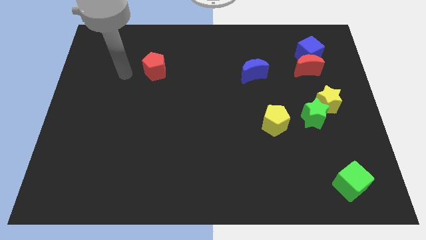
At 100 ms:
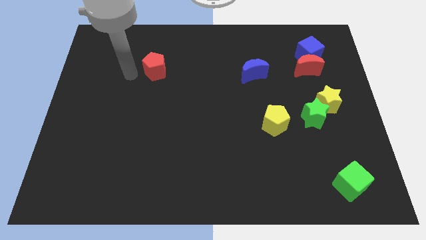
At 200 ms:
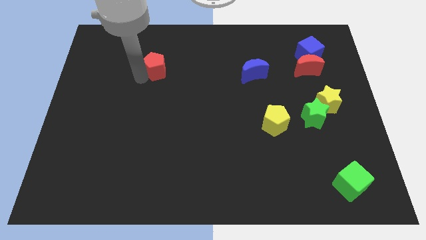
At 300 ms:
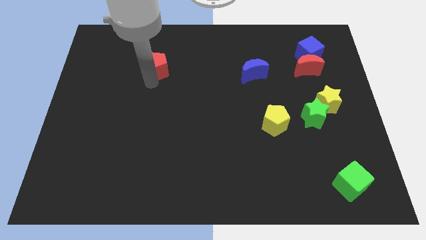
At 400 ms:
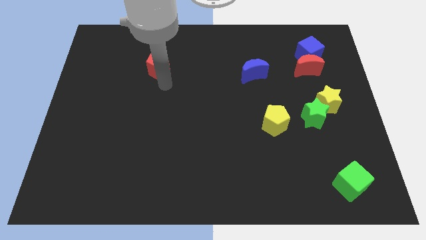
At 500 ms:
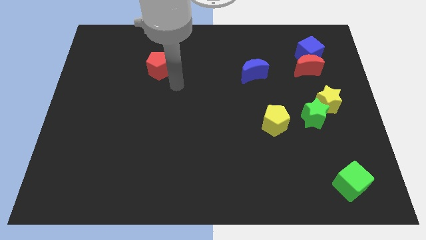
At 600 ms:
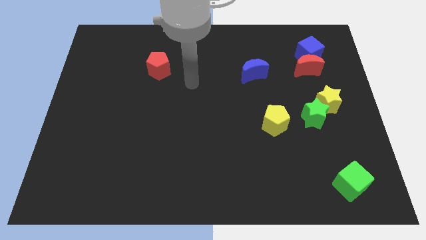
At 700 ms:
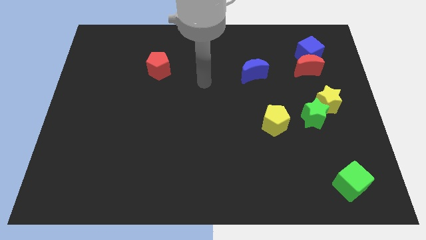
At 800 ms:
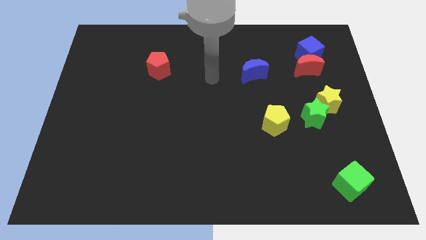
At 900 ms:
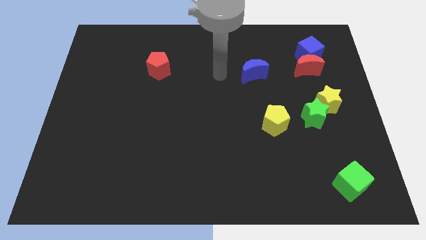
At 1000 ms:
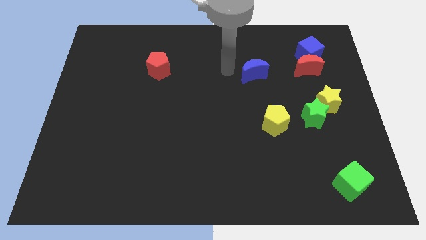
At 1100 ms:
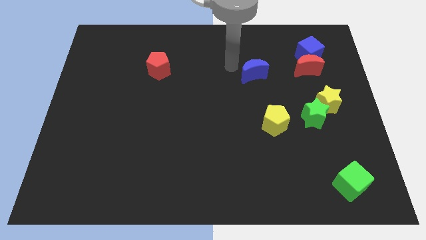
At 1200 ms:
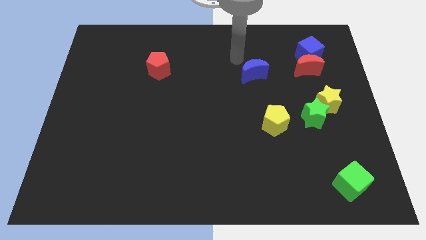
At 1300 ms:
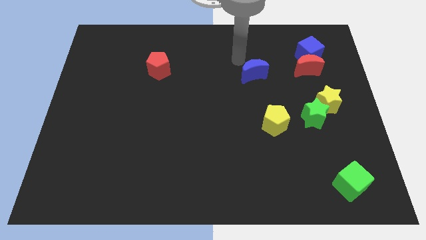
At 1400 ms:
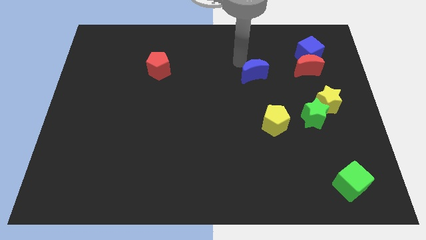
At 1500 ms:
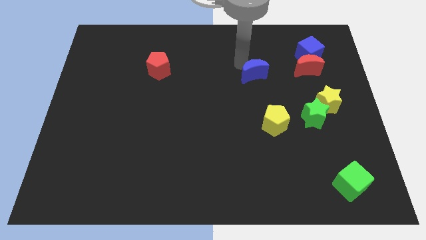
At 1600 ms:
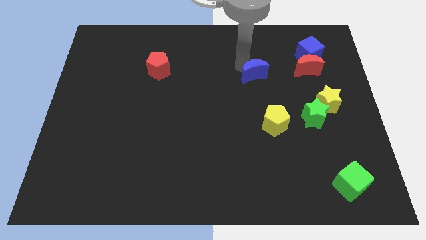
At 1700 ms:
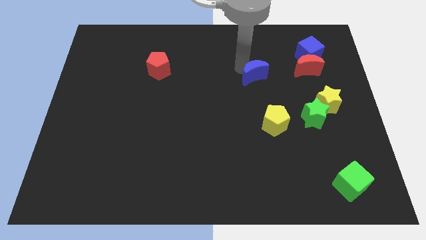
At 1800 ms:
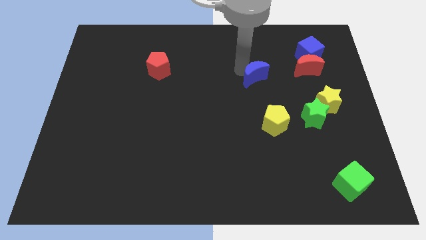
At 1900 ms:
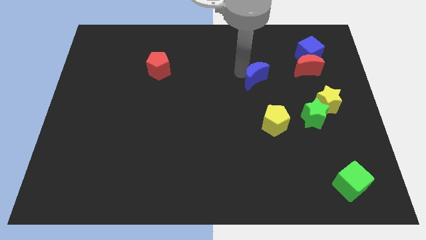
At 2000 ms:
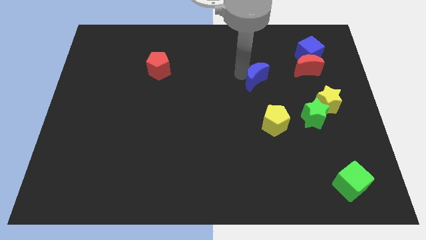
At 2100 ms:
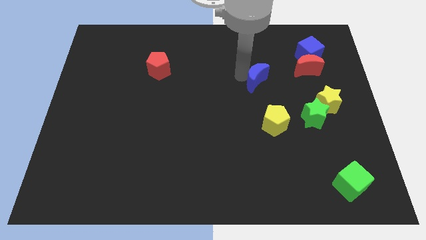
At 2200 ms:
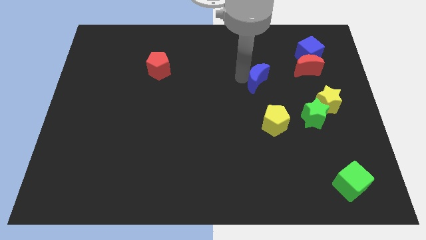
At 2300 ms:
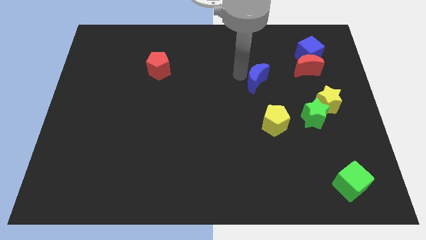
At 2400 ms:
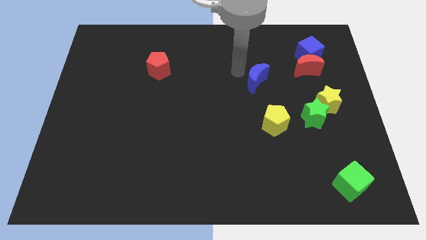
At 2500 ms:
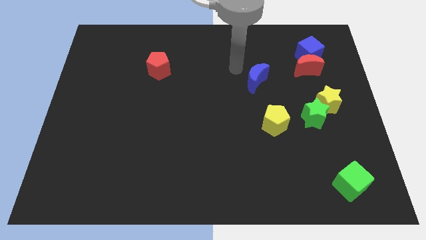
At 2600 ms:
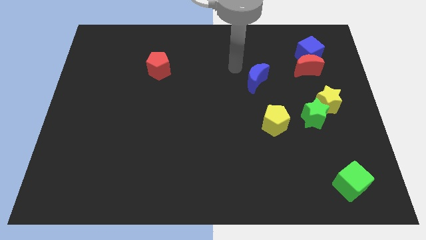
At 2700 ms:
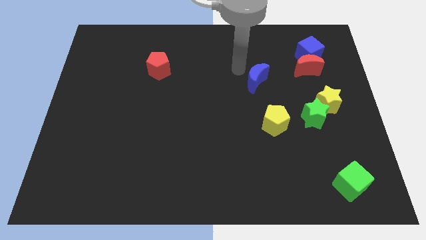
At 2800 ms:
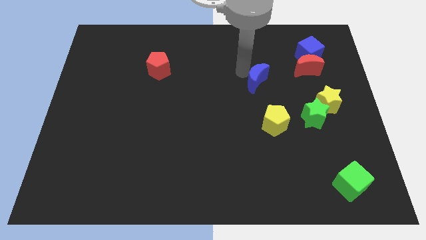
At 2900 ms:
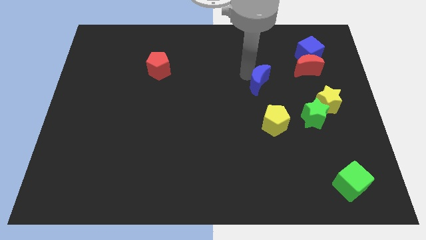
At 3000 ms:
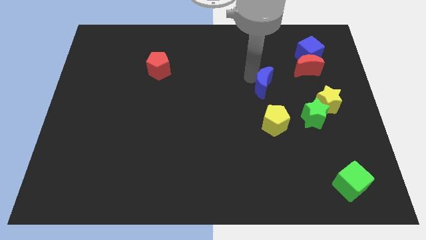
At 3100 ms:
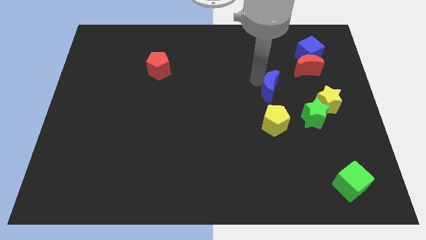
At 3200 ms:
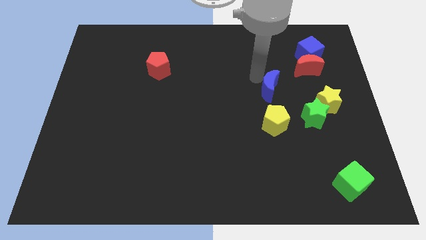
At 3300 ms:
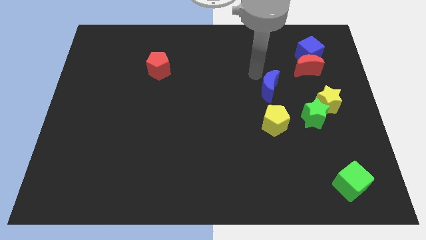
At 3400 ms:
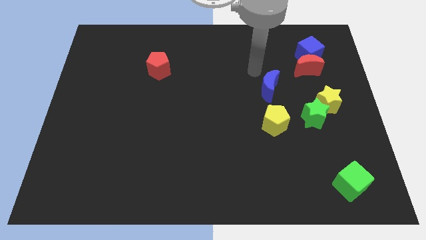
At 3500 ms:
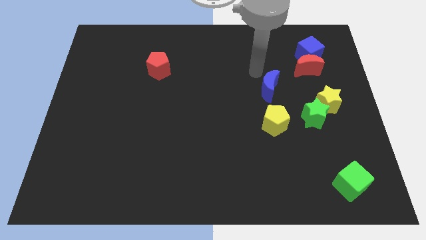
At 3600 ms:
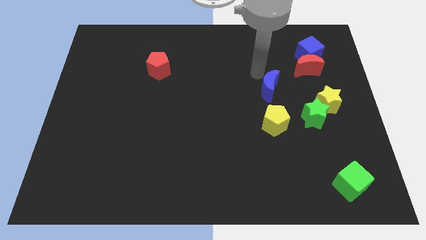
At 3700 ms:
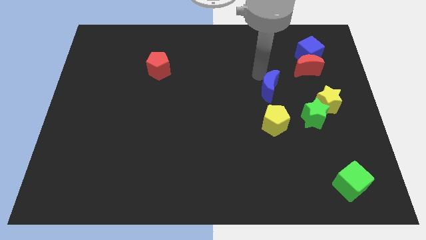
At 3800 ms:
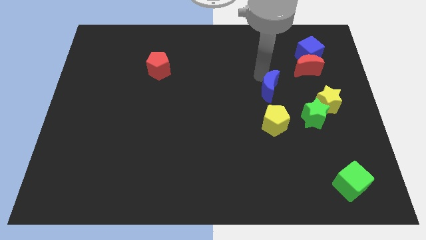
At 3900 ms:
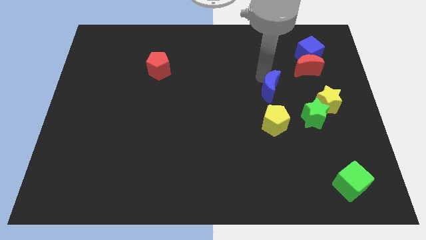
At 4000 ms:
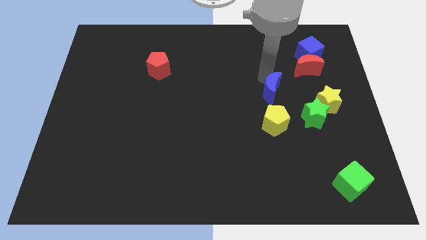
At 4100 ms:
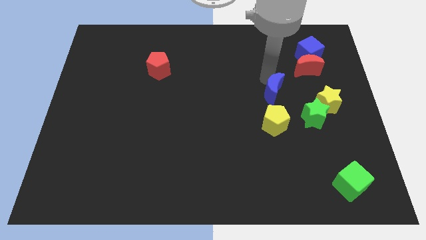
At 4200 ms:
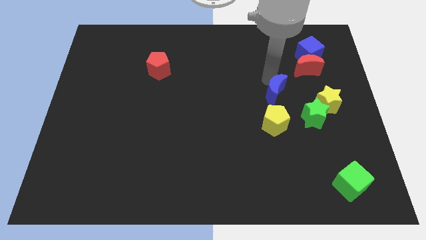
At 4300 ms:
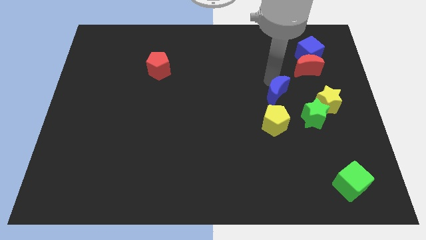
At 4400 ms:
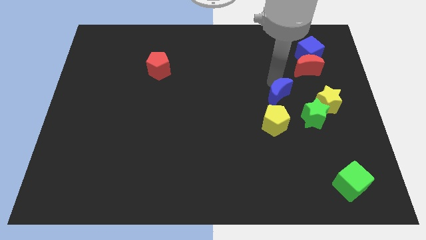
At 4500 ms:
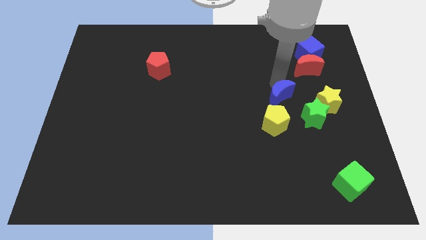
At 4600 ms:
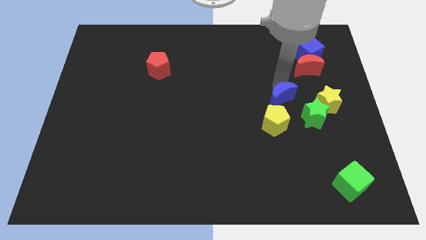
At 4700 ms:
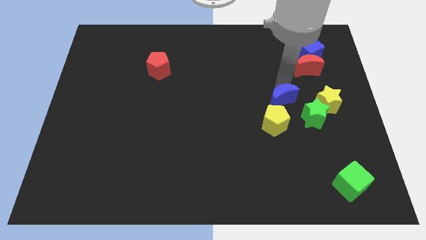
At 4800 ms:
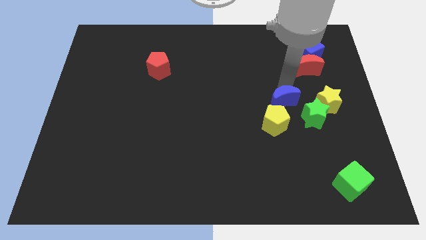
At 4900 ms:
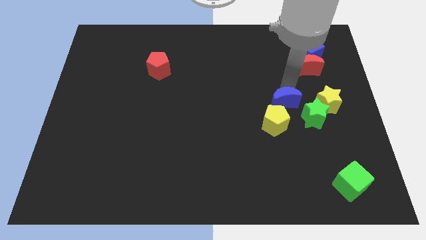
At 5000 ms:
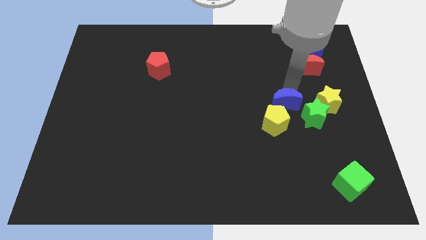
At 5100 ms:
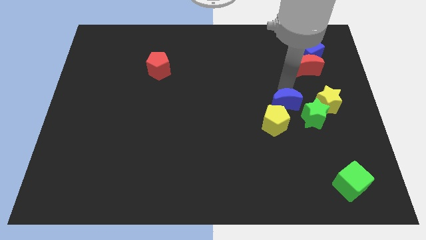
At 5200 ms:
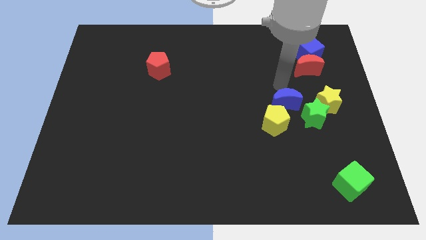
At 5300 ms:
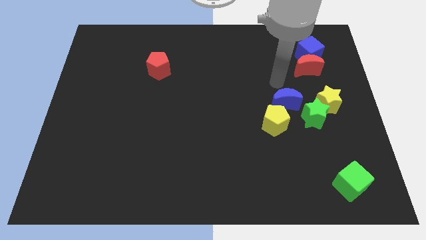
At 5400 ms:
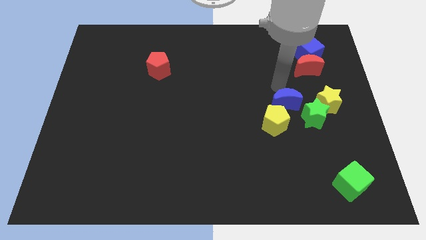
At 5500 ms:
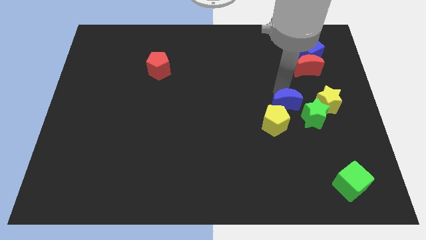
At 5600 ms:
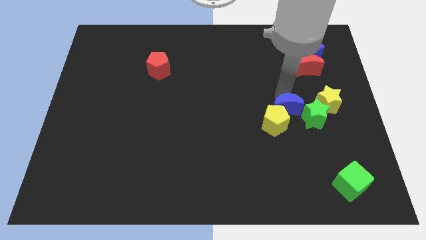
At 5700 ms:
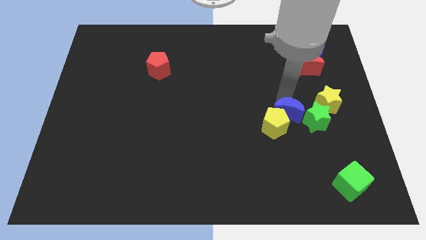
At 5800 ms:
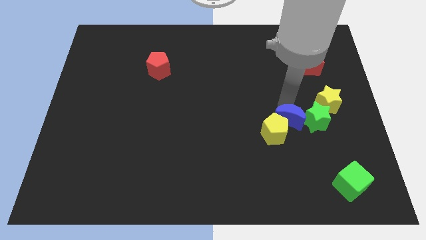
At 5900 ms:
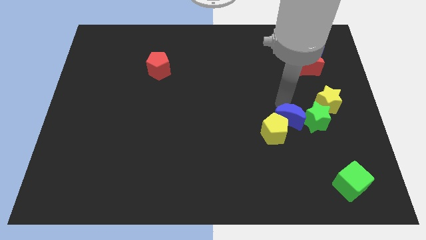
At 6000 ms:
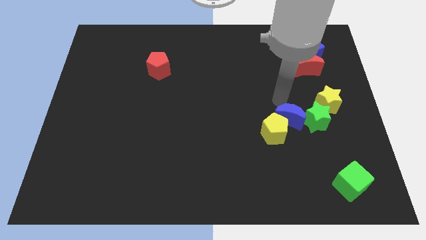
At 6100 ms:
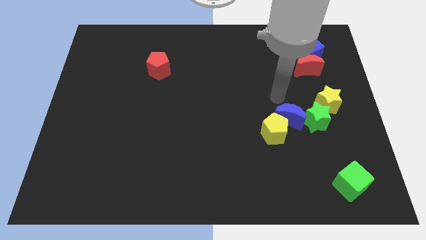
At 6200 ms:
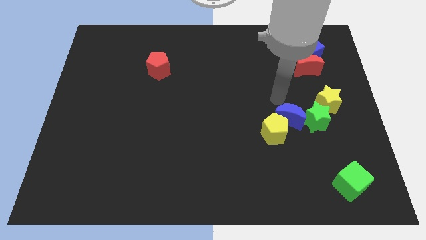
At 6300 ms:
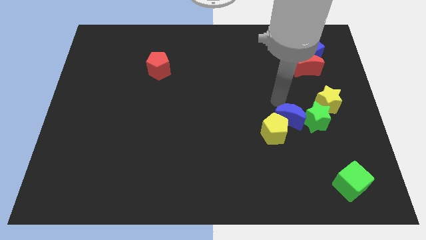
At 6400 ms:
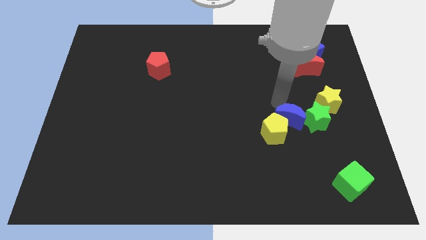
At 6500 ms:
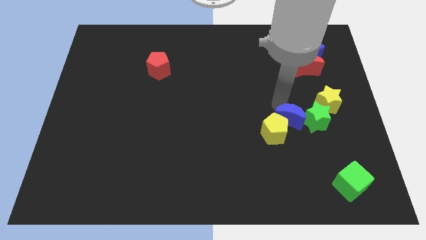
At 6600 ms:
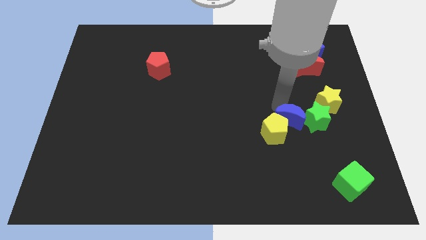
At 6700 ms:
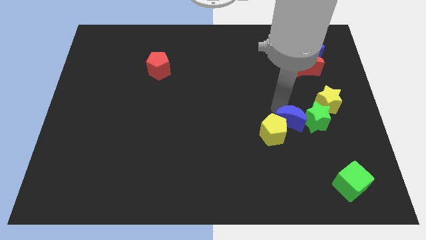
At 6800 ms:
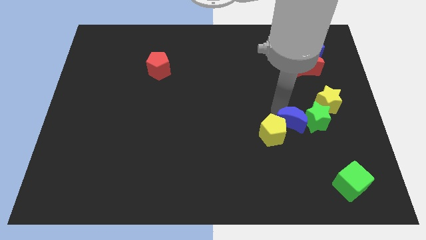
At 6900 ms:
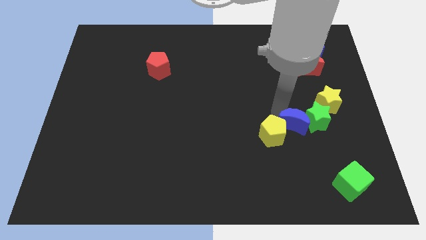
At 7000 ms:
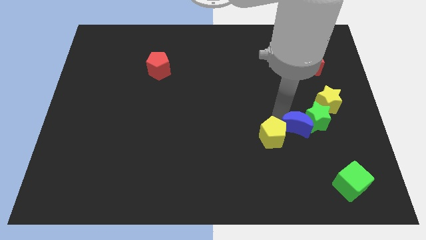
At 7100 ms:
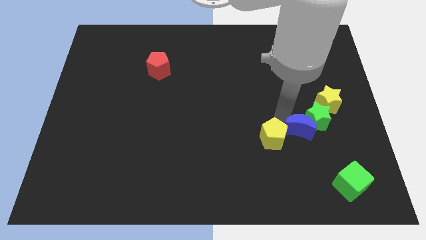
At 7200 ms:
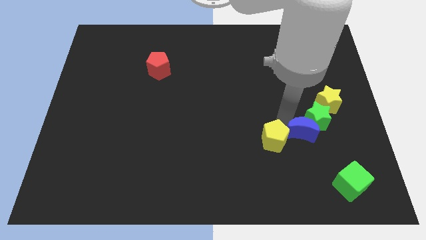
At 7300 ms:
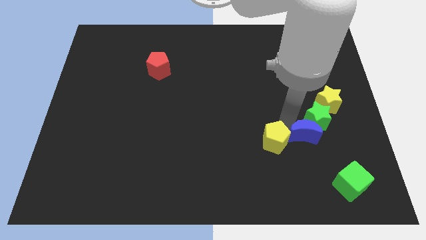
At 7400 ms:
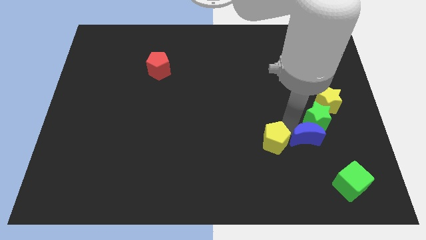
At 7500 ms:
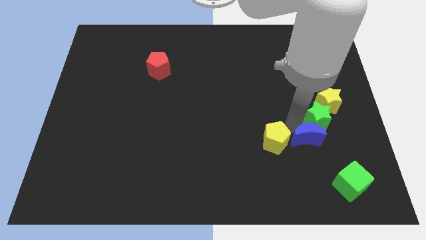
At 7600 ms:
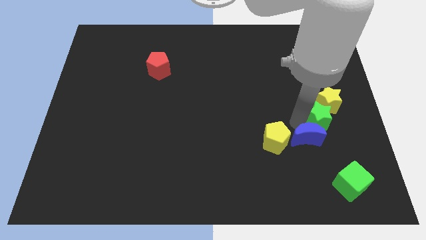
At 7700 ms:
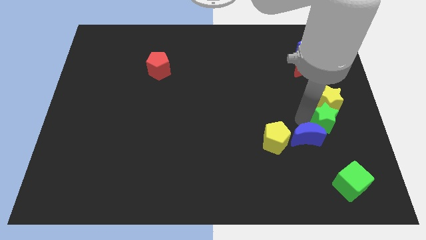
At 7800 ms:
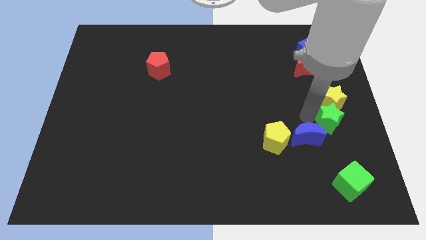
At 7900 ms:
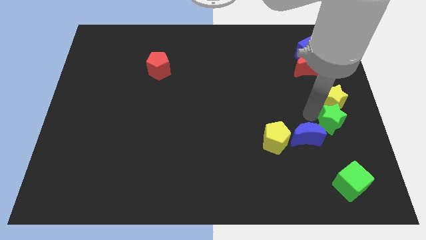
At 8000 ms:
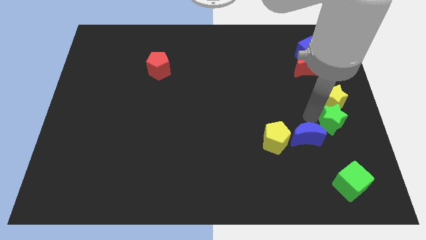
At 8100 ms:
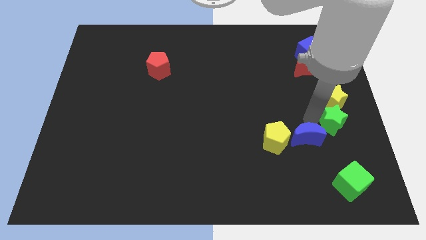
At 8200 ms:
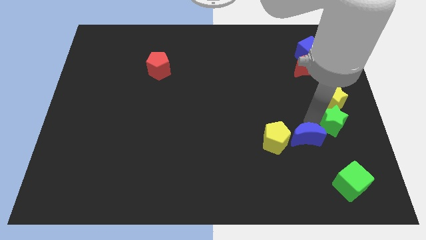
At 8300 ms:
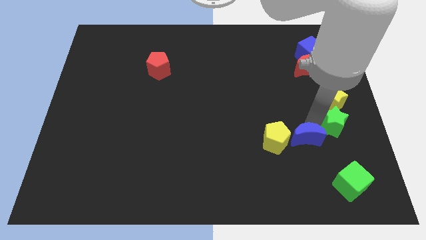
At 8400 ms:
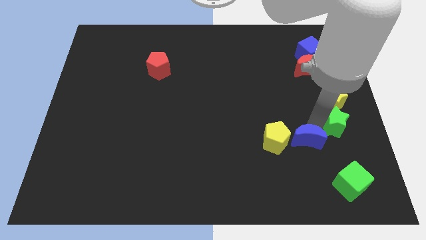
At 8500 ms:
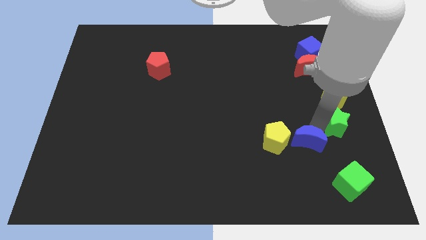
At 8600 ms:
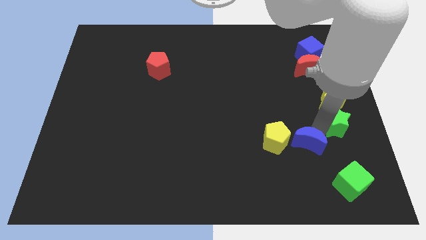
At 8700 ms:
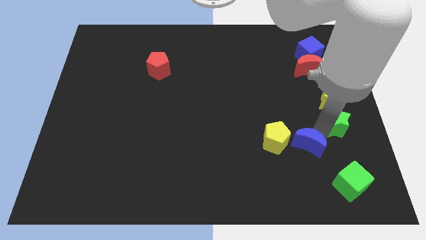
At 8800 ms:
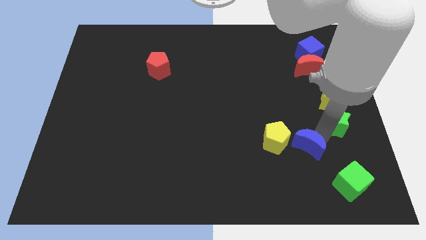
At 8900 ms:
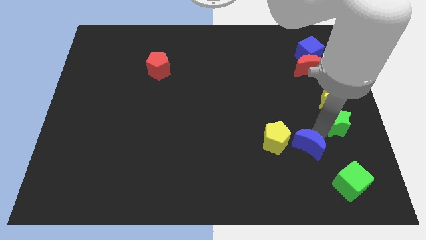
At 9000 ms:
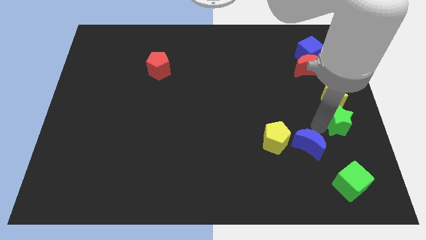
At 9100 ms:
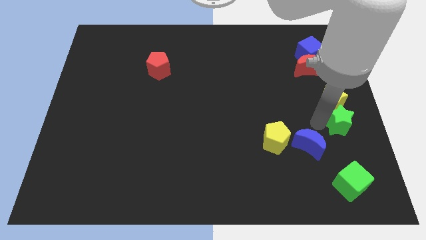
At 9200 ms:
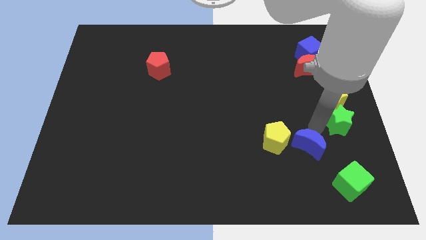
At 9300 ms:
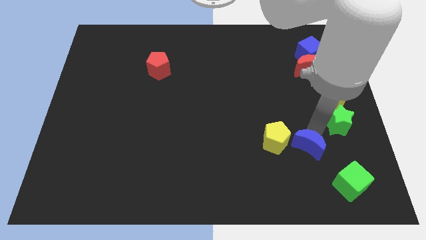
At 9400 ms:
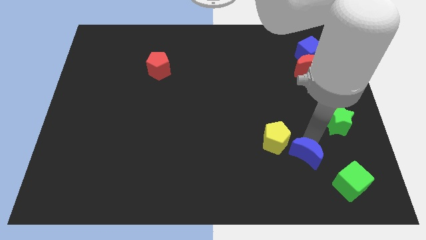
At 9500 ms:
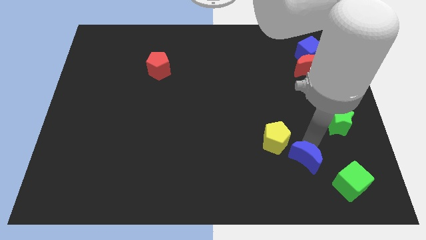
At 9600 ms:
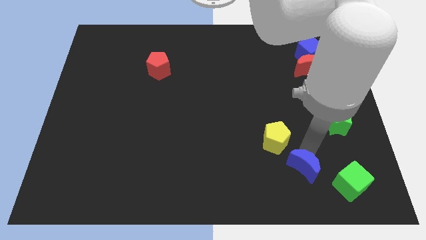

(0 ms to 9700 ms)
push the blue moon just left of the green cube
